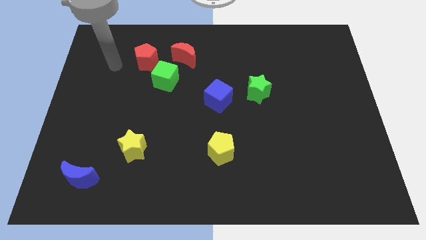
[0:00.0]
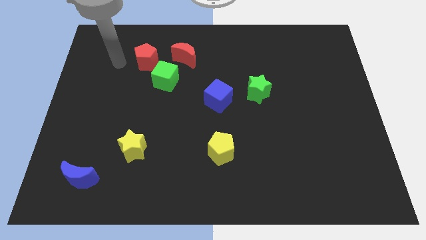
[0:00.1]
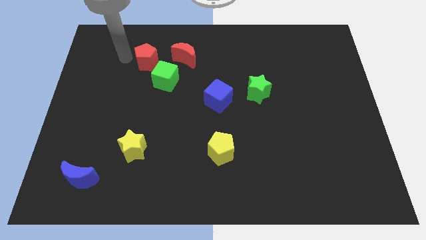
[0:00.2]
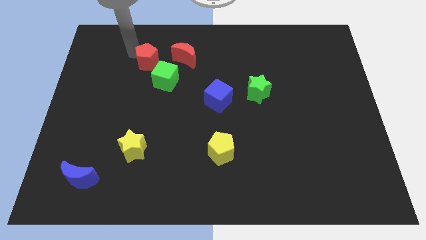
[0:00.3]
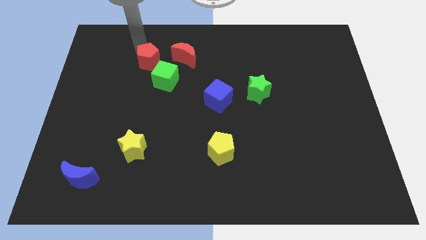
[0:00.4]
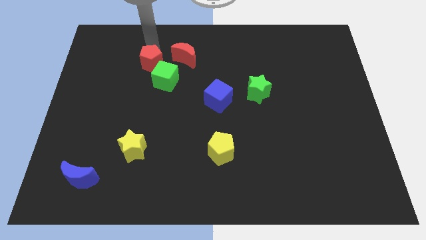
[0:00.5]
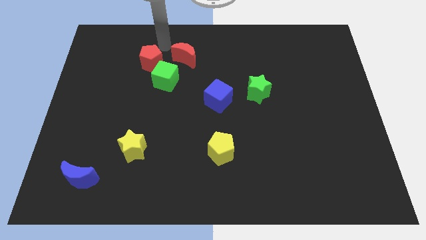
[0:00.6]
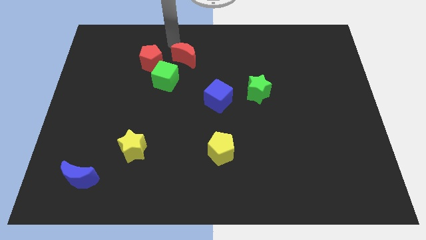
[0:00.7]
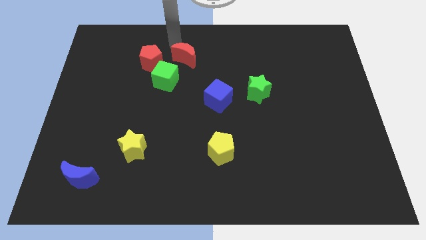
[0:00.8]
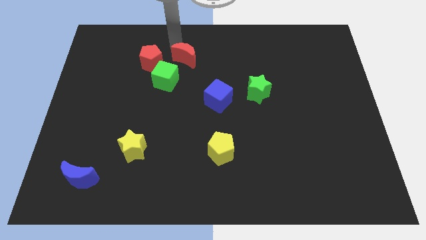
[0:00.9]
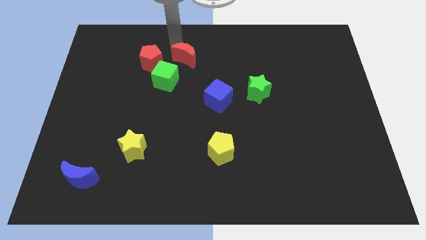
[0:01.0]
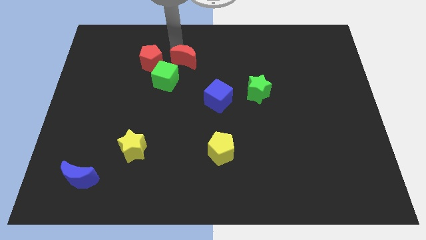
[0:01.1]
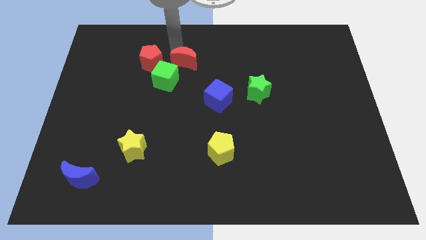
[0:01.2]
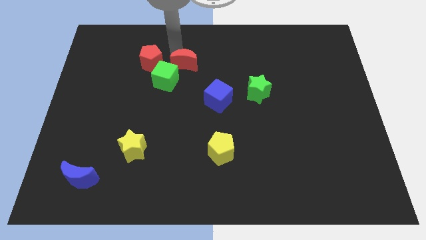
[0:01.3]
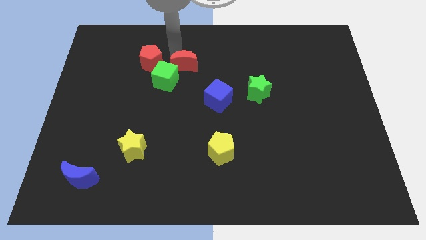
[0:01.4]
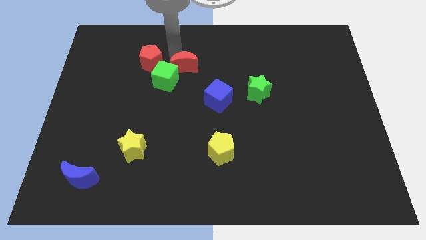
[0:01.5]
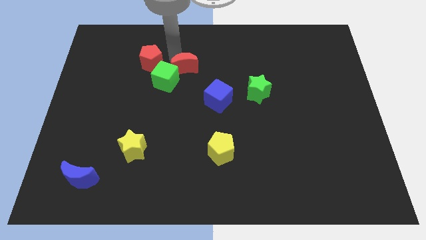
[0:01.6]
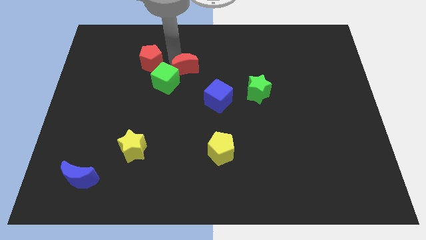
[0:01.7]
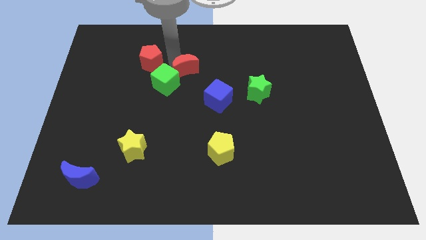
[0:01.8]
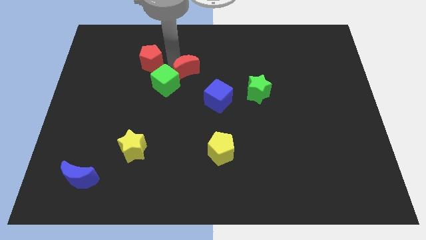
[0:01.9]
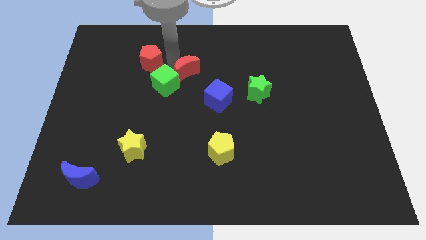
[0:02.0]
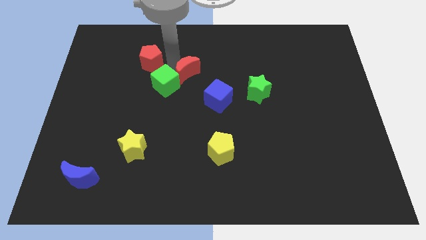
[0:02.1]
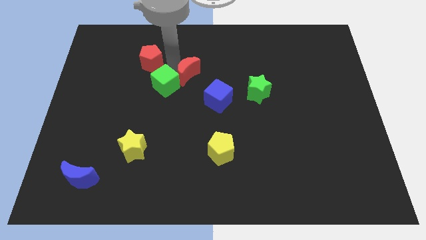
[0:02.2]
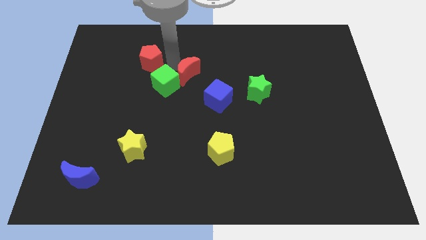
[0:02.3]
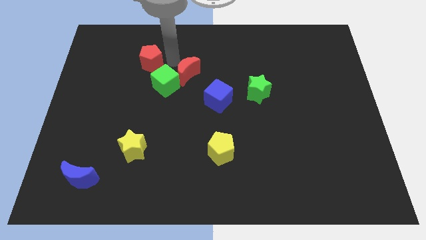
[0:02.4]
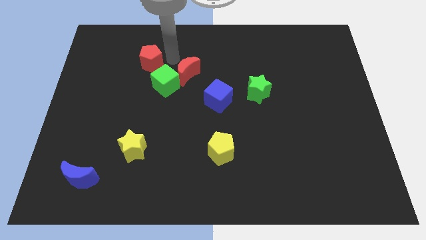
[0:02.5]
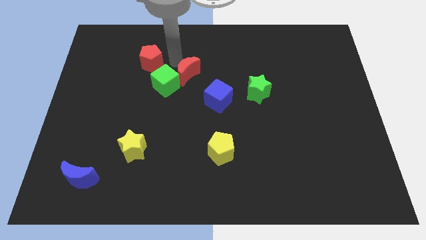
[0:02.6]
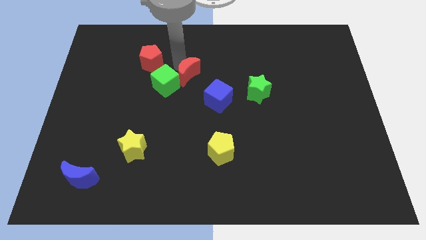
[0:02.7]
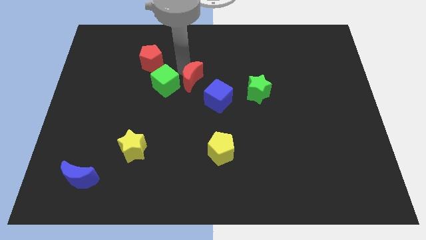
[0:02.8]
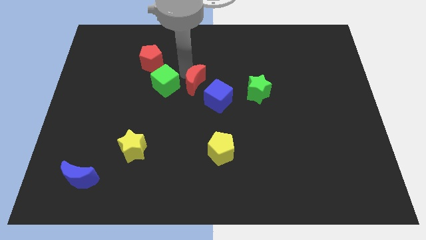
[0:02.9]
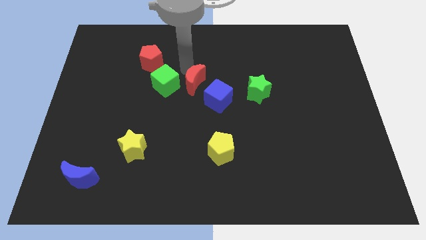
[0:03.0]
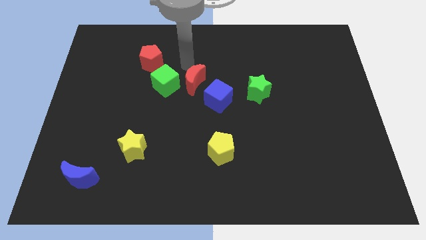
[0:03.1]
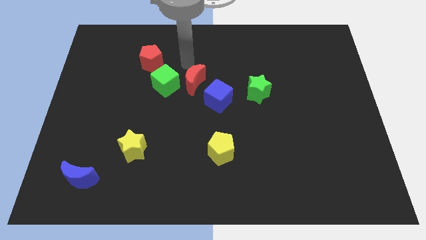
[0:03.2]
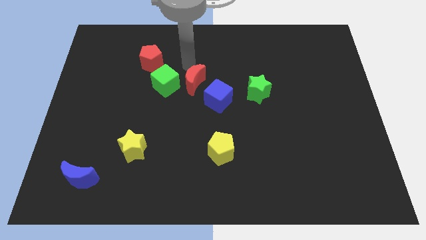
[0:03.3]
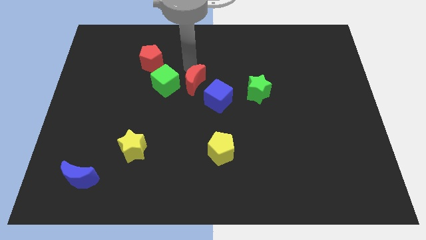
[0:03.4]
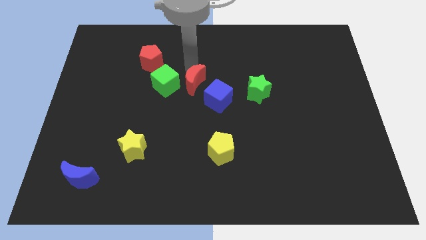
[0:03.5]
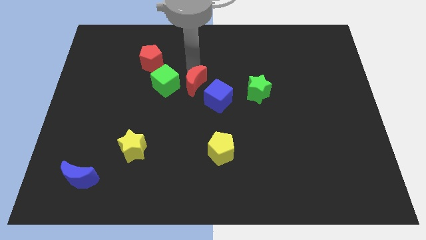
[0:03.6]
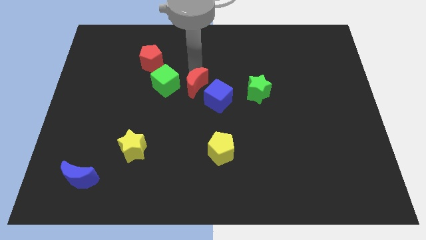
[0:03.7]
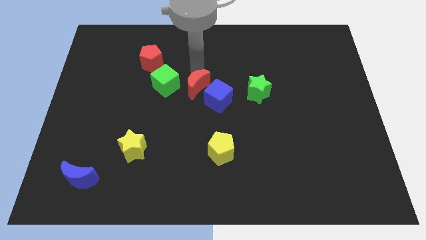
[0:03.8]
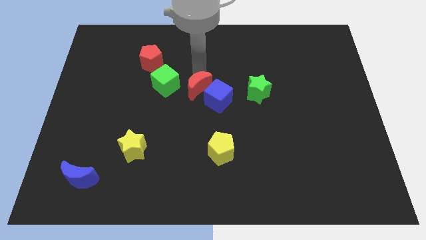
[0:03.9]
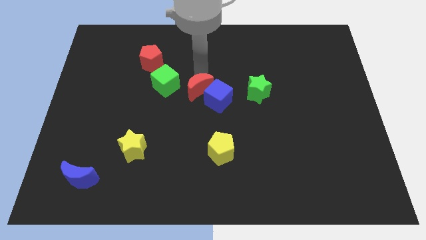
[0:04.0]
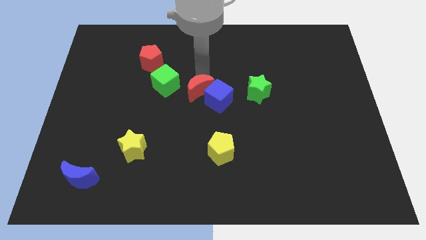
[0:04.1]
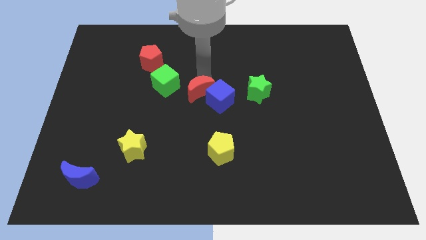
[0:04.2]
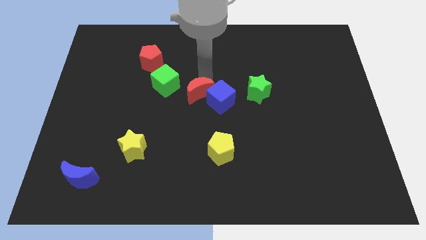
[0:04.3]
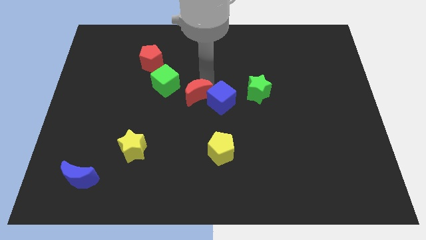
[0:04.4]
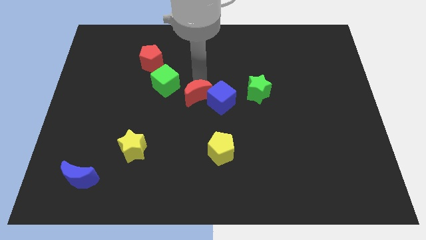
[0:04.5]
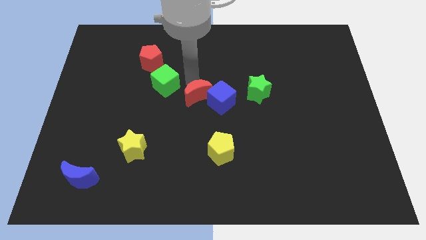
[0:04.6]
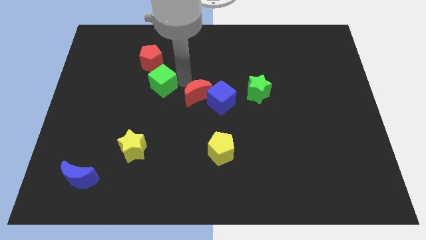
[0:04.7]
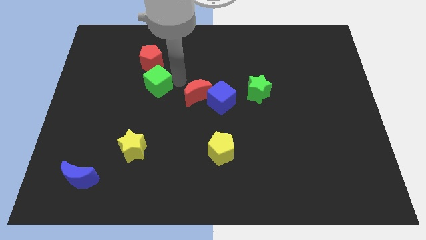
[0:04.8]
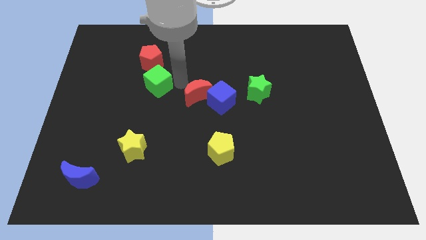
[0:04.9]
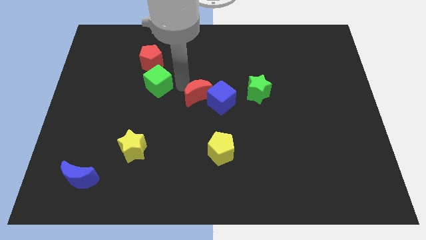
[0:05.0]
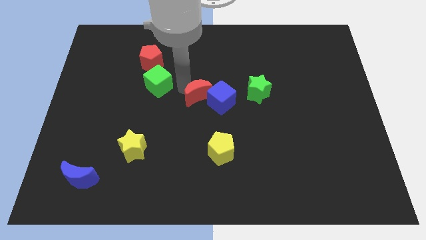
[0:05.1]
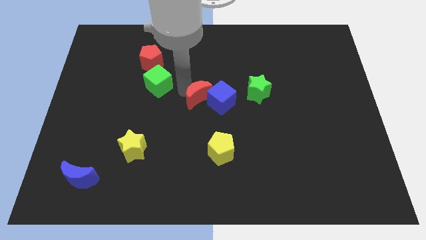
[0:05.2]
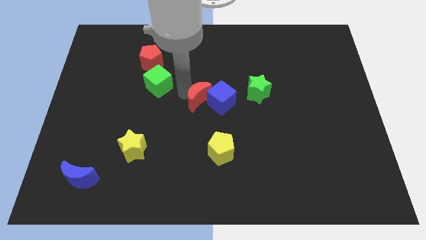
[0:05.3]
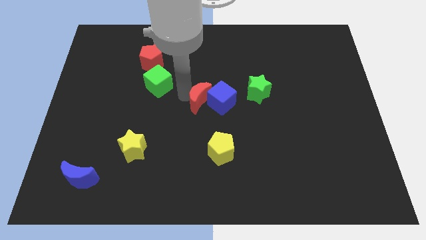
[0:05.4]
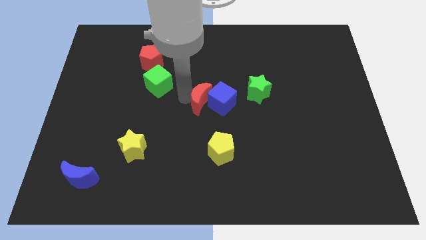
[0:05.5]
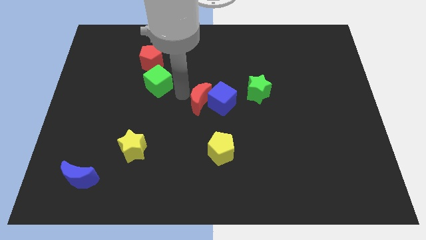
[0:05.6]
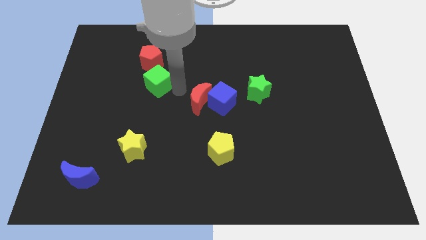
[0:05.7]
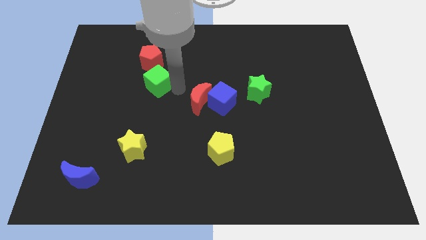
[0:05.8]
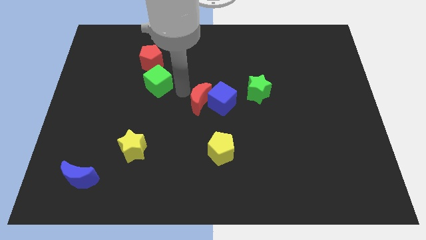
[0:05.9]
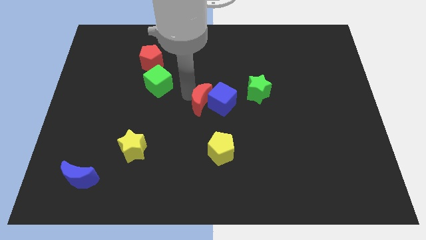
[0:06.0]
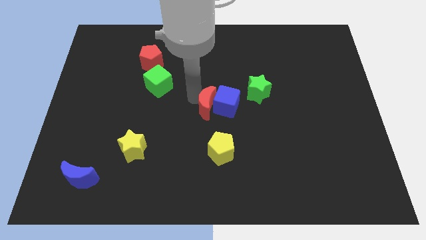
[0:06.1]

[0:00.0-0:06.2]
push the red moon to the top of the yellow pentagon

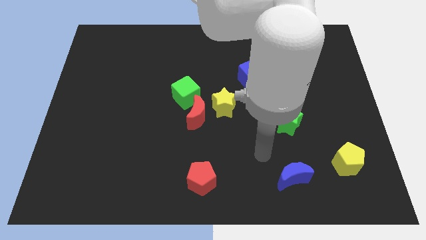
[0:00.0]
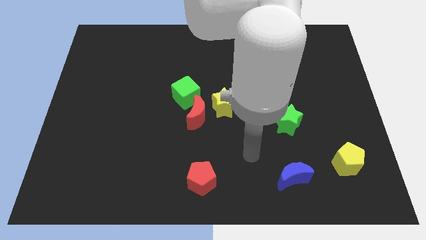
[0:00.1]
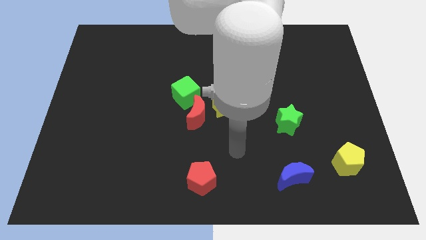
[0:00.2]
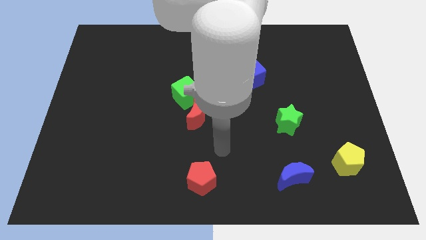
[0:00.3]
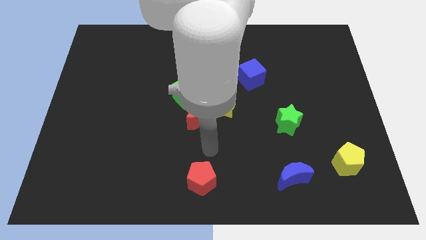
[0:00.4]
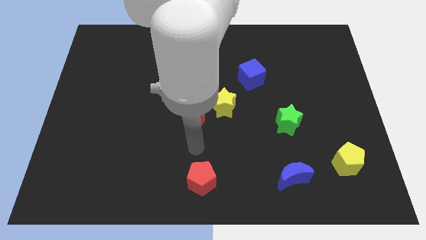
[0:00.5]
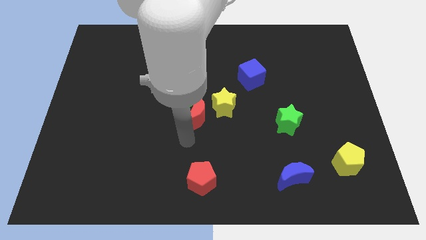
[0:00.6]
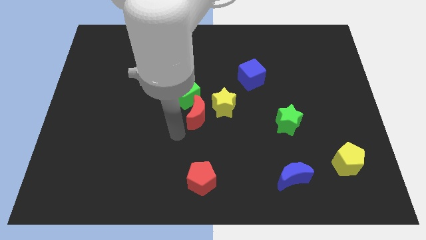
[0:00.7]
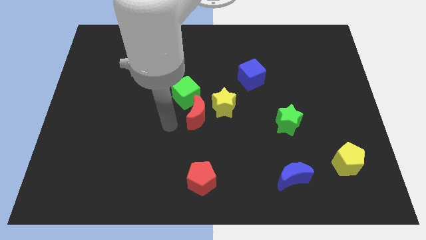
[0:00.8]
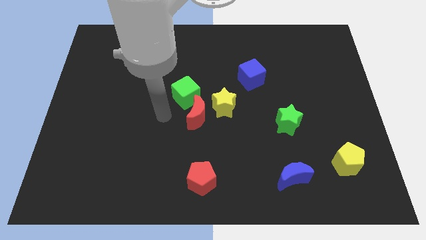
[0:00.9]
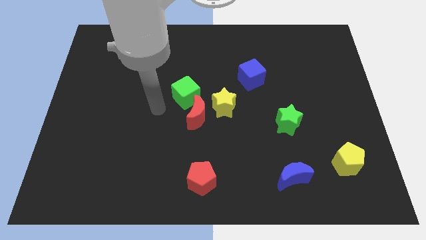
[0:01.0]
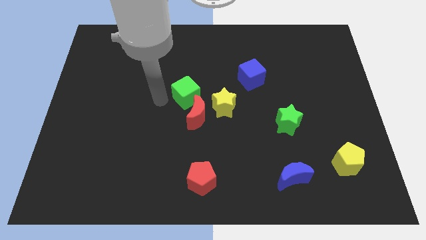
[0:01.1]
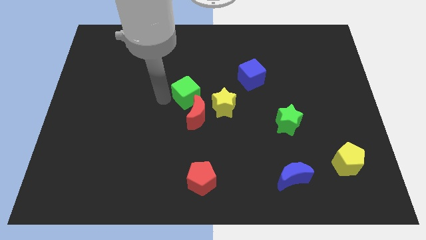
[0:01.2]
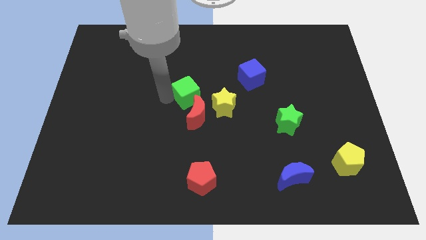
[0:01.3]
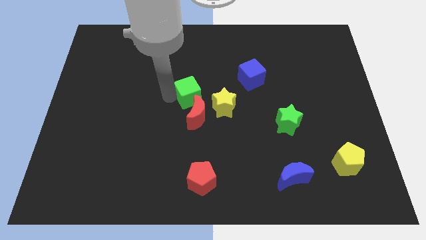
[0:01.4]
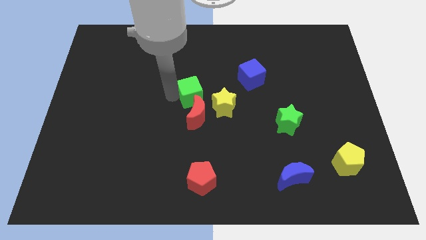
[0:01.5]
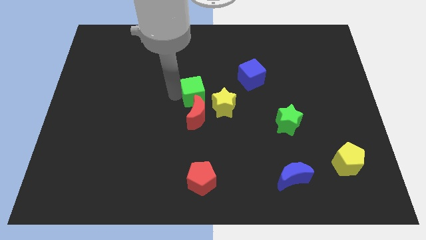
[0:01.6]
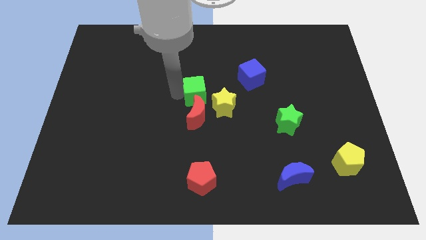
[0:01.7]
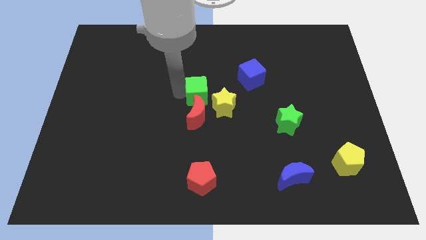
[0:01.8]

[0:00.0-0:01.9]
slide the green cube diagonally up and to the right of the red moon
